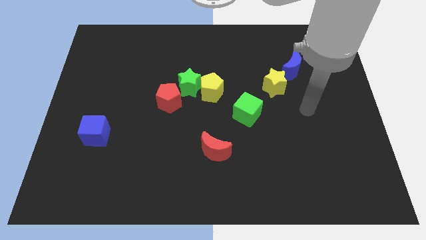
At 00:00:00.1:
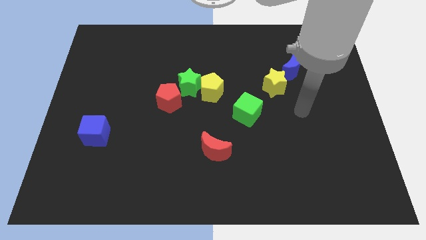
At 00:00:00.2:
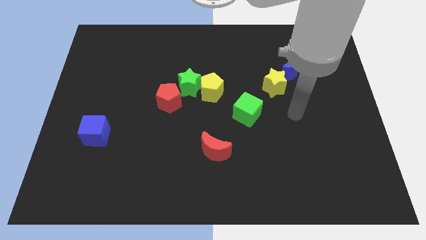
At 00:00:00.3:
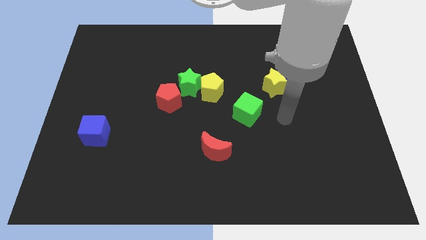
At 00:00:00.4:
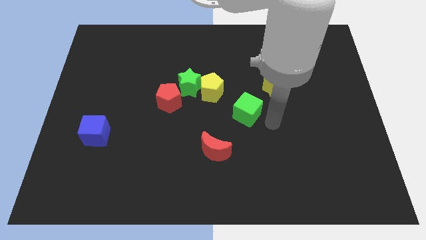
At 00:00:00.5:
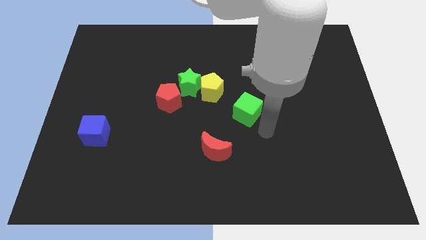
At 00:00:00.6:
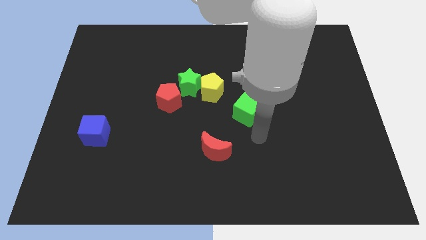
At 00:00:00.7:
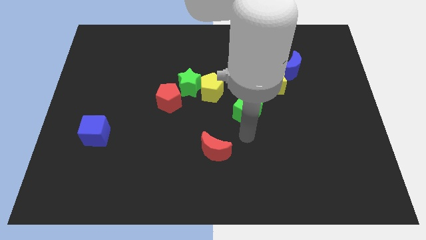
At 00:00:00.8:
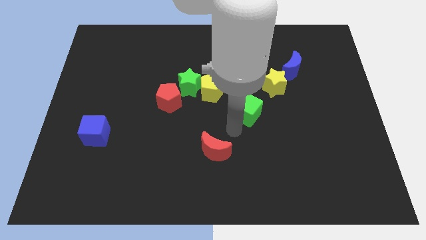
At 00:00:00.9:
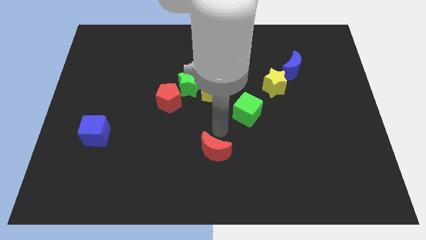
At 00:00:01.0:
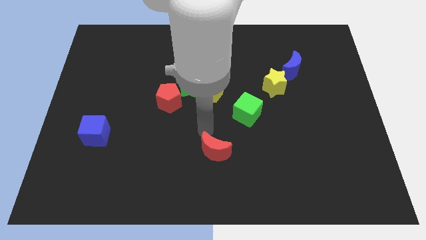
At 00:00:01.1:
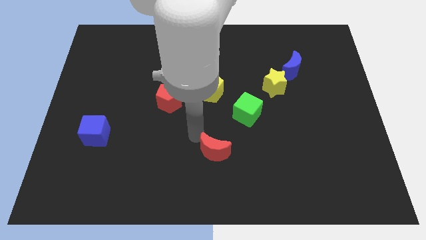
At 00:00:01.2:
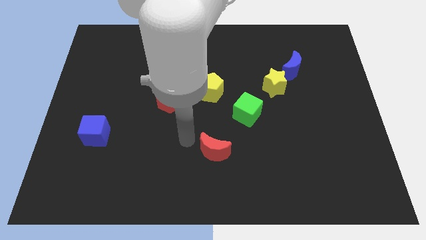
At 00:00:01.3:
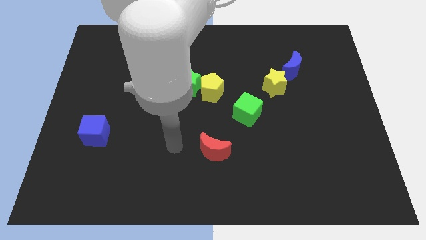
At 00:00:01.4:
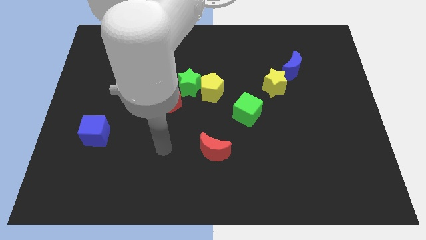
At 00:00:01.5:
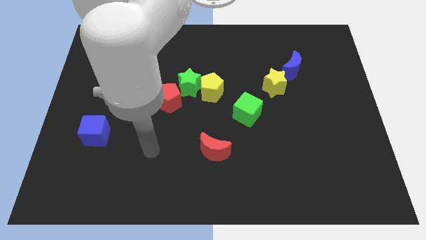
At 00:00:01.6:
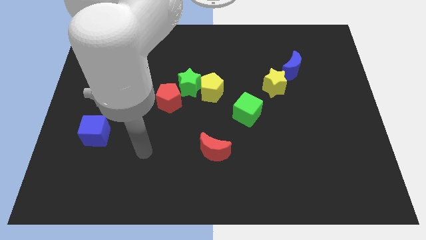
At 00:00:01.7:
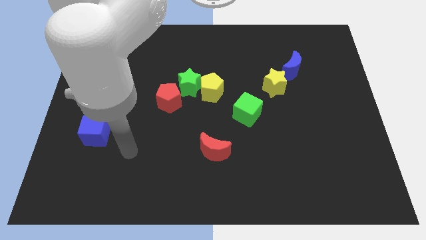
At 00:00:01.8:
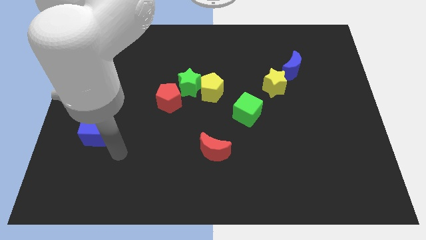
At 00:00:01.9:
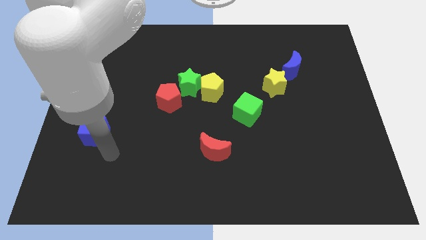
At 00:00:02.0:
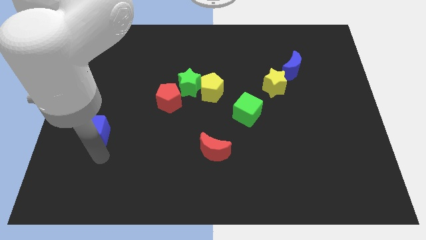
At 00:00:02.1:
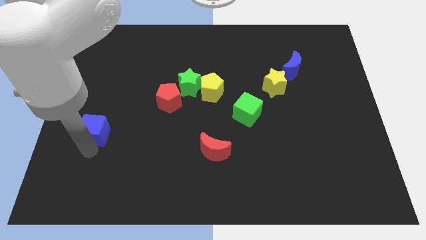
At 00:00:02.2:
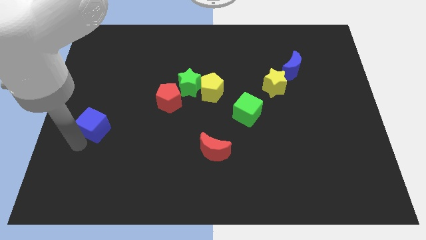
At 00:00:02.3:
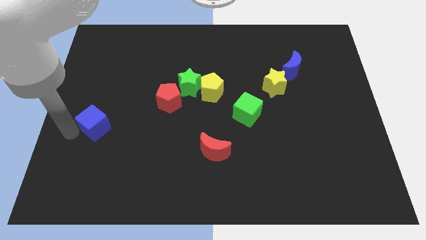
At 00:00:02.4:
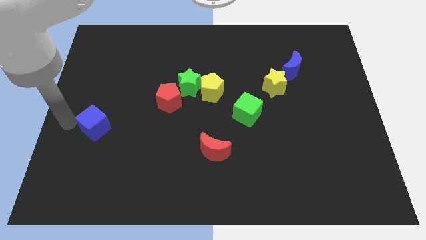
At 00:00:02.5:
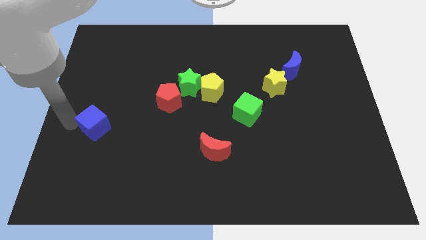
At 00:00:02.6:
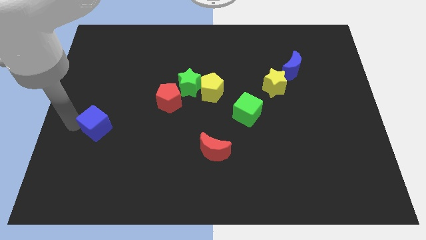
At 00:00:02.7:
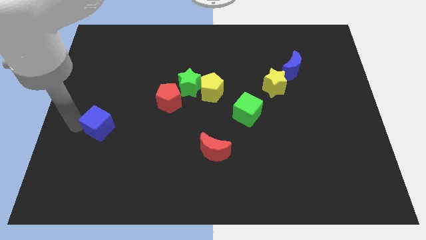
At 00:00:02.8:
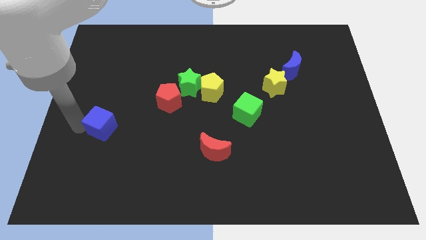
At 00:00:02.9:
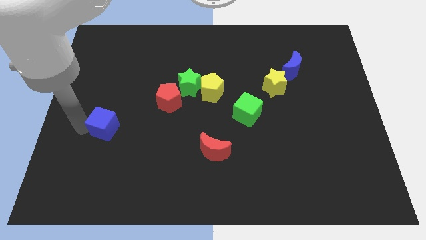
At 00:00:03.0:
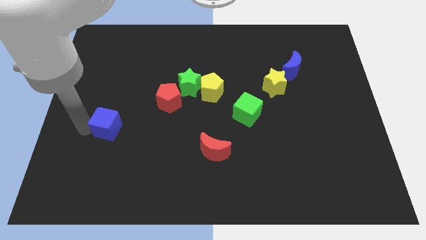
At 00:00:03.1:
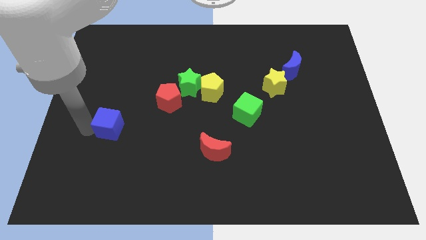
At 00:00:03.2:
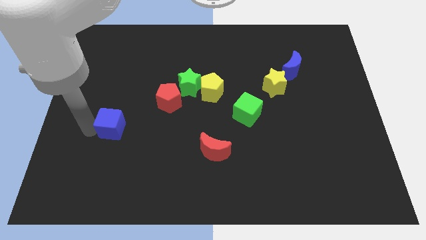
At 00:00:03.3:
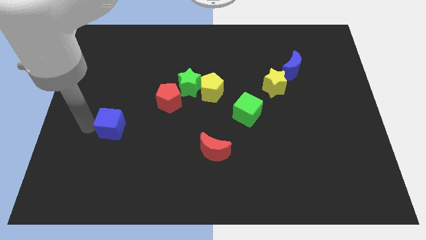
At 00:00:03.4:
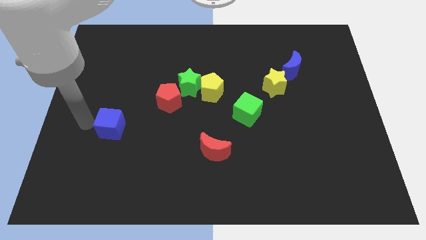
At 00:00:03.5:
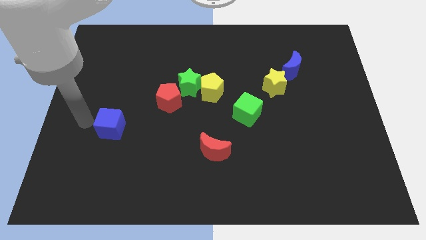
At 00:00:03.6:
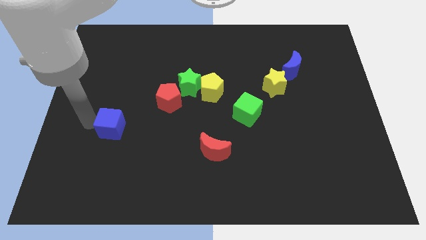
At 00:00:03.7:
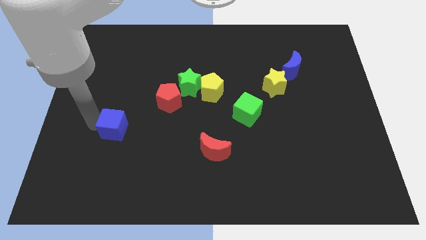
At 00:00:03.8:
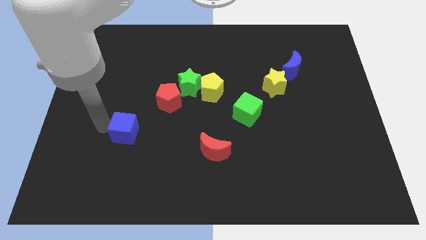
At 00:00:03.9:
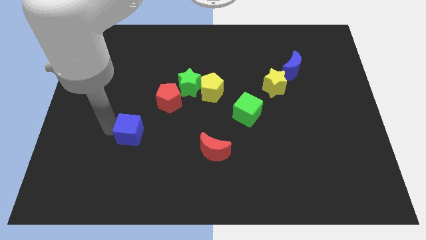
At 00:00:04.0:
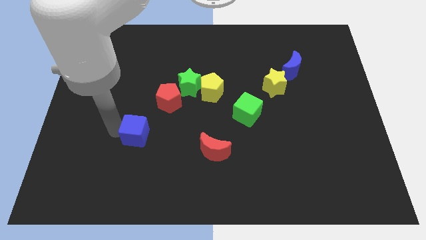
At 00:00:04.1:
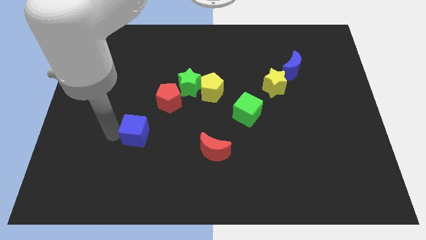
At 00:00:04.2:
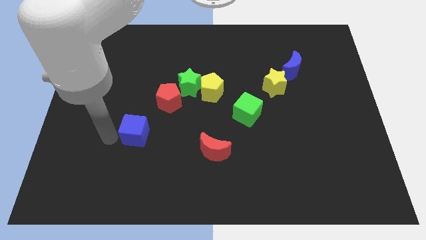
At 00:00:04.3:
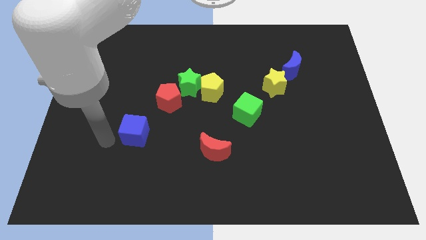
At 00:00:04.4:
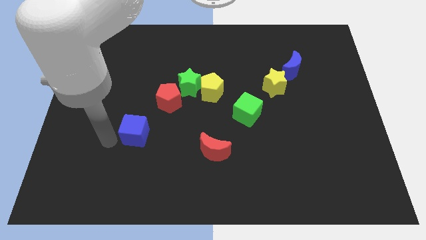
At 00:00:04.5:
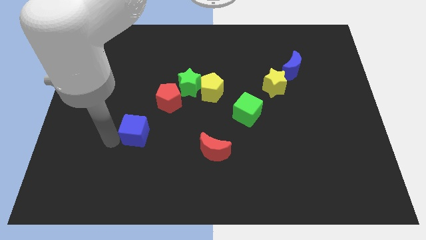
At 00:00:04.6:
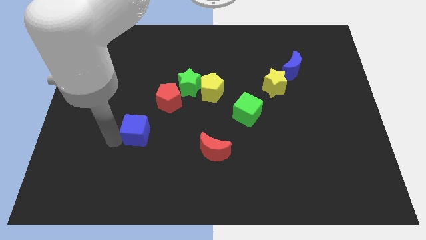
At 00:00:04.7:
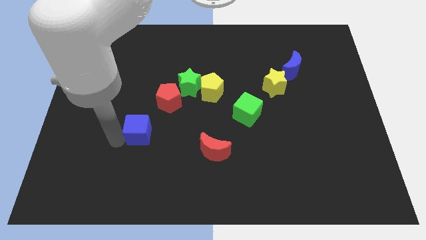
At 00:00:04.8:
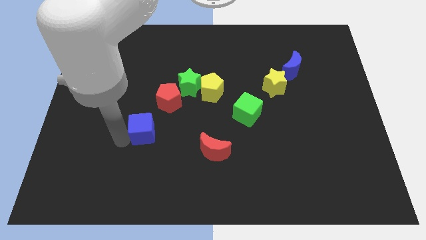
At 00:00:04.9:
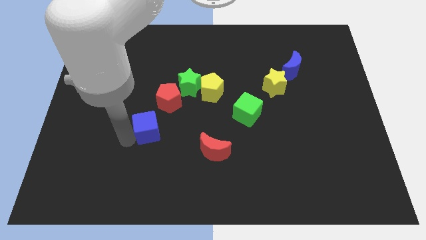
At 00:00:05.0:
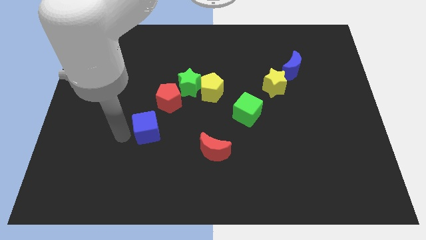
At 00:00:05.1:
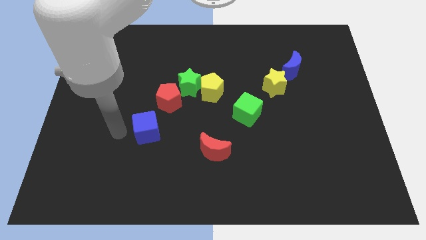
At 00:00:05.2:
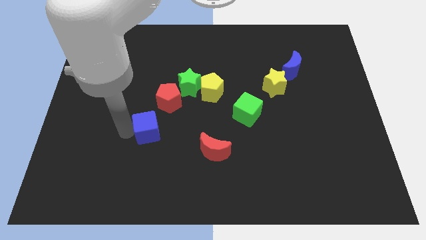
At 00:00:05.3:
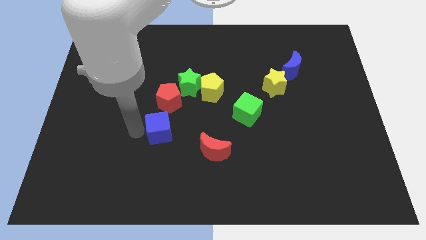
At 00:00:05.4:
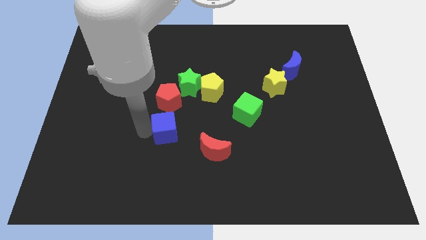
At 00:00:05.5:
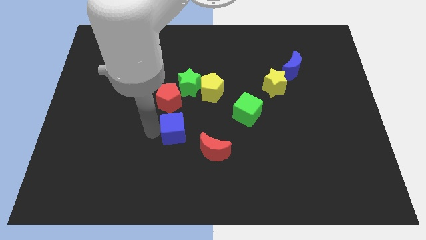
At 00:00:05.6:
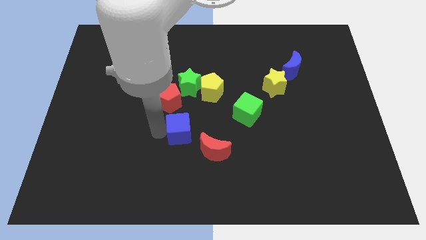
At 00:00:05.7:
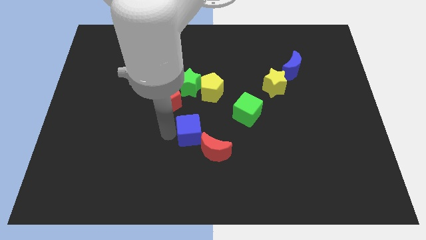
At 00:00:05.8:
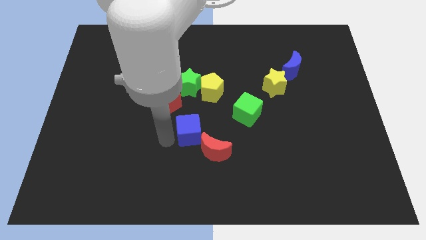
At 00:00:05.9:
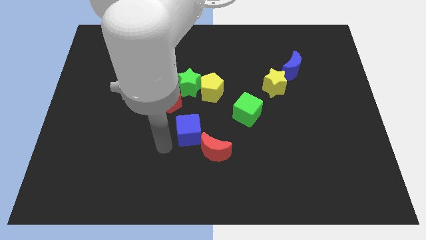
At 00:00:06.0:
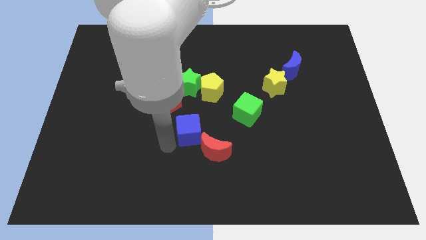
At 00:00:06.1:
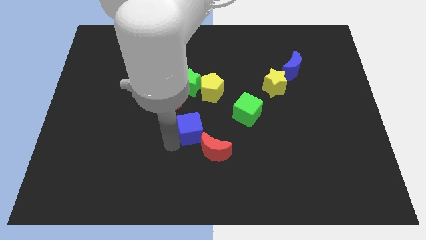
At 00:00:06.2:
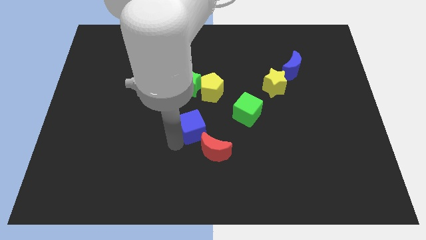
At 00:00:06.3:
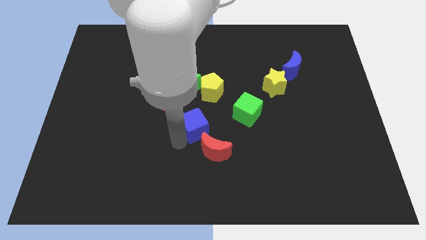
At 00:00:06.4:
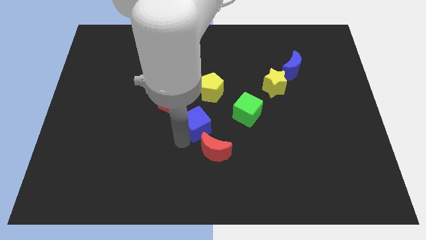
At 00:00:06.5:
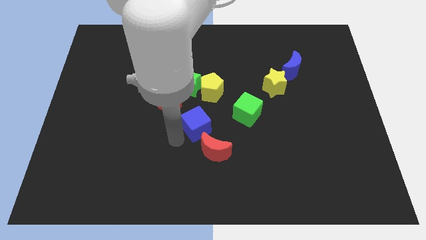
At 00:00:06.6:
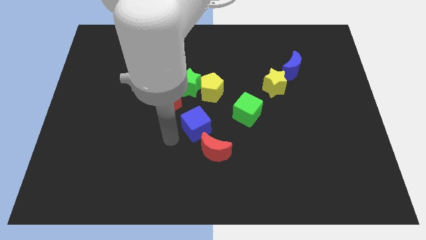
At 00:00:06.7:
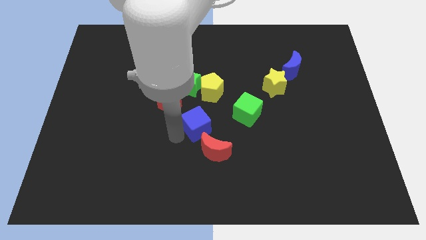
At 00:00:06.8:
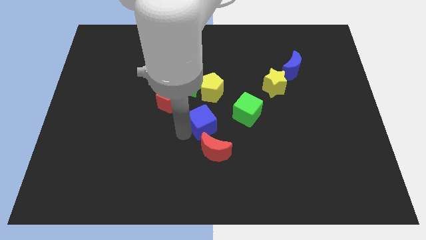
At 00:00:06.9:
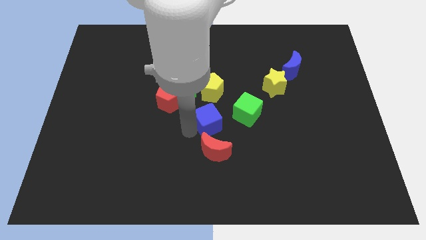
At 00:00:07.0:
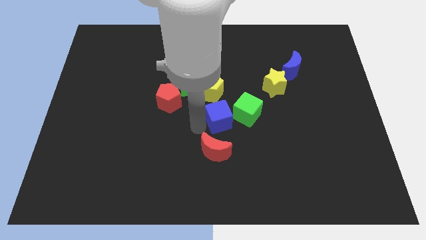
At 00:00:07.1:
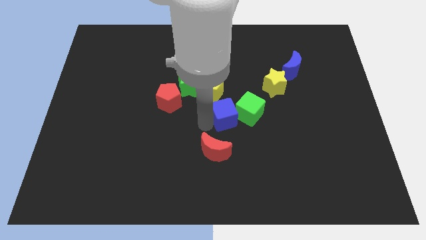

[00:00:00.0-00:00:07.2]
put the blue cube next to the green cube

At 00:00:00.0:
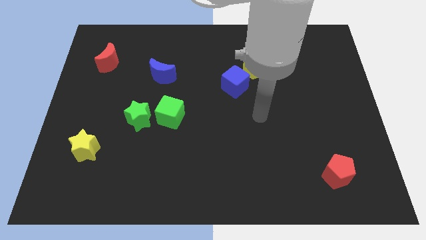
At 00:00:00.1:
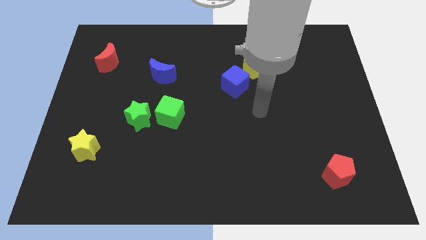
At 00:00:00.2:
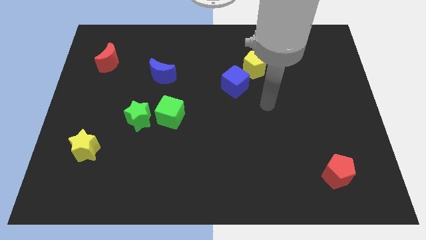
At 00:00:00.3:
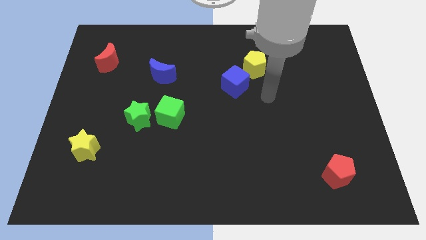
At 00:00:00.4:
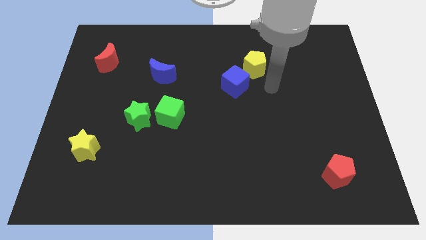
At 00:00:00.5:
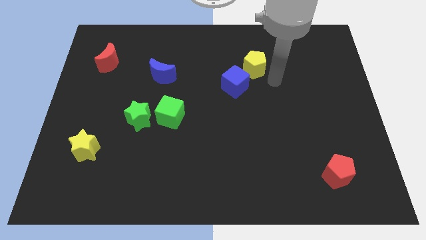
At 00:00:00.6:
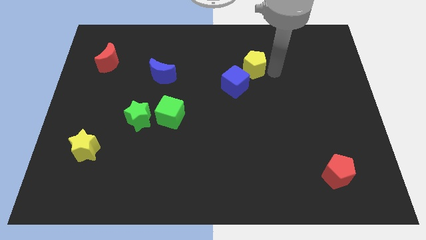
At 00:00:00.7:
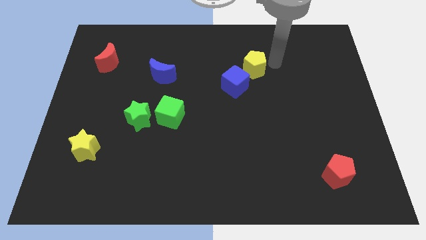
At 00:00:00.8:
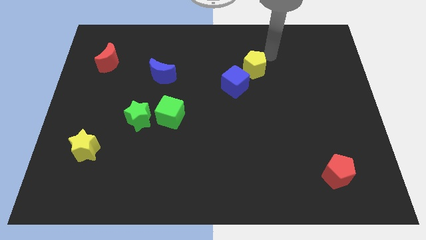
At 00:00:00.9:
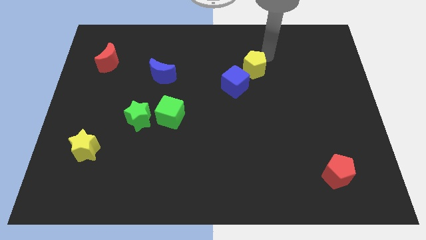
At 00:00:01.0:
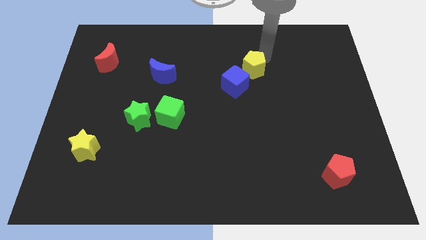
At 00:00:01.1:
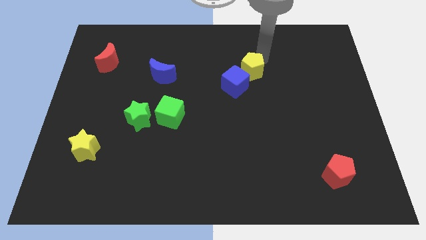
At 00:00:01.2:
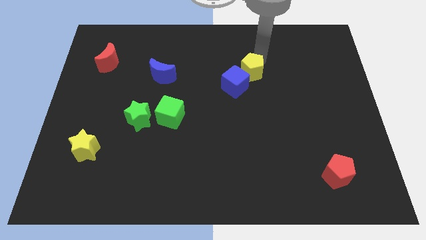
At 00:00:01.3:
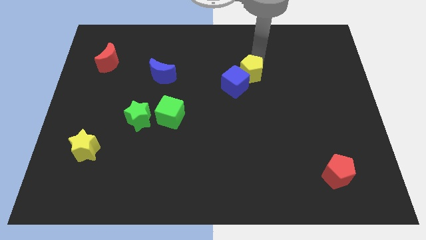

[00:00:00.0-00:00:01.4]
move the yellow pentagon towards the blue cube
